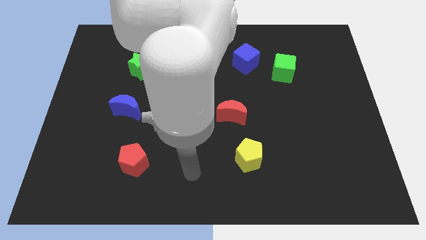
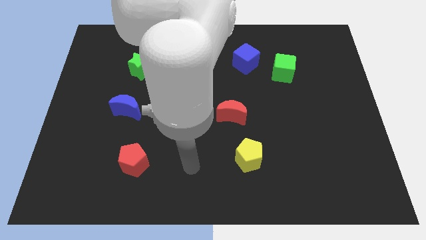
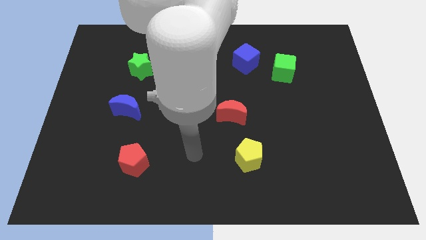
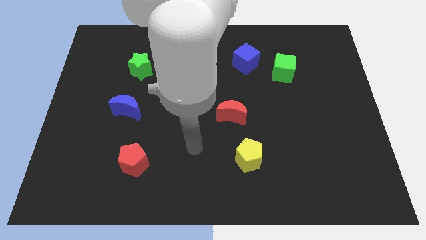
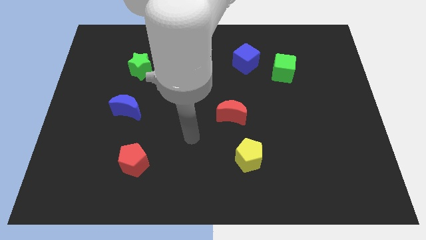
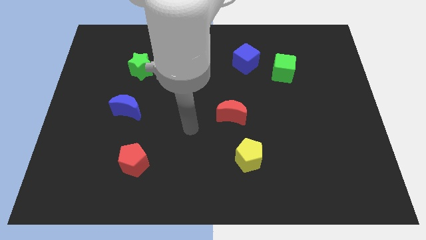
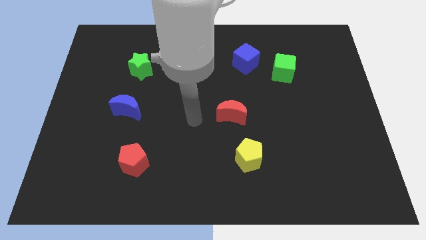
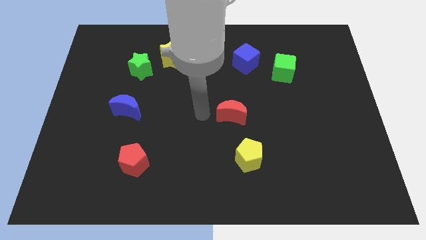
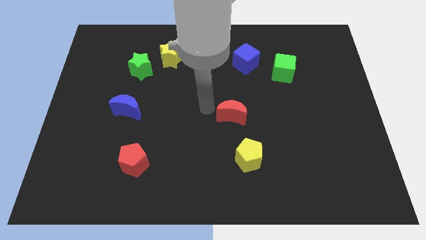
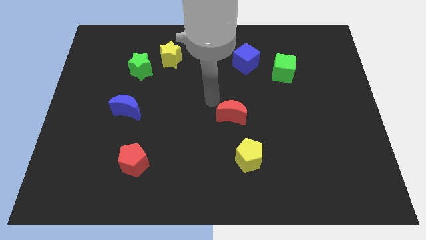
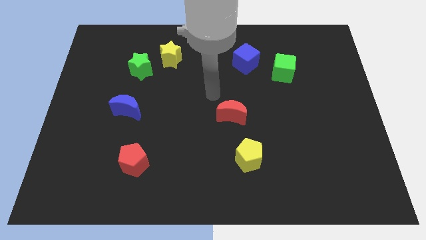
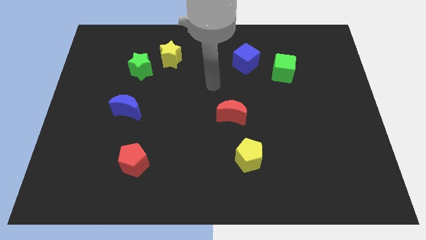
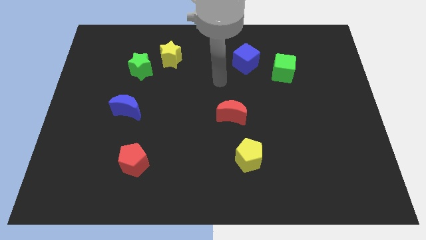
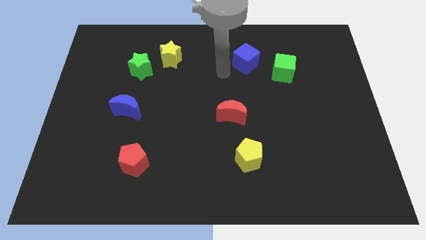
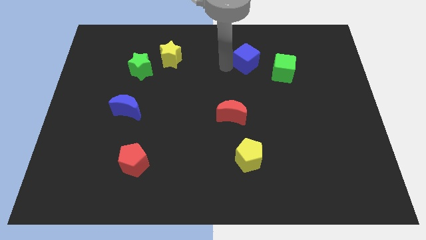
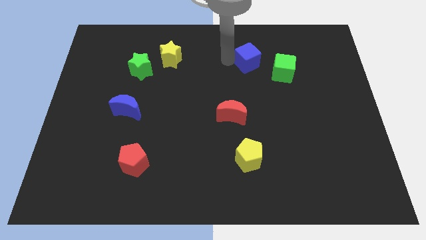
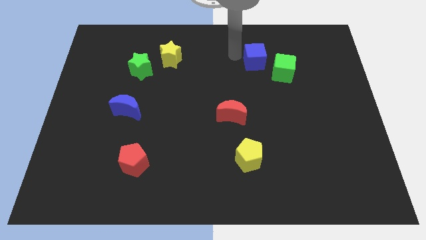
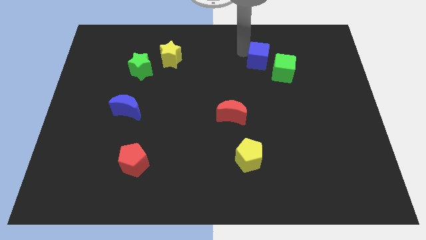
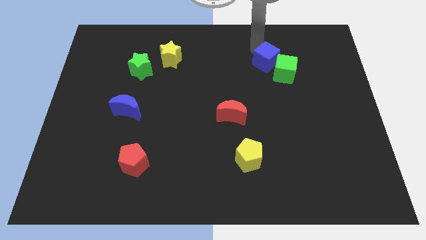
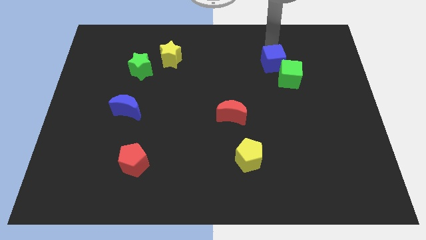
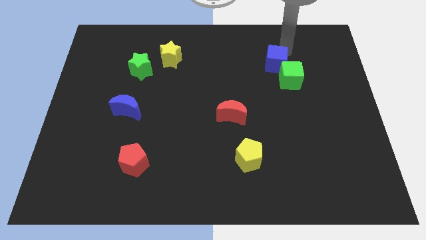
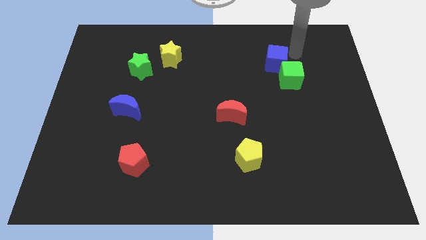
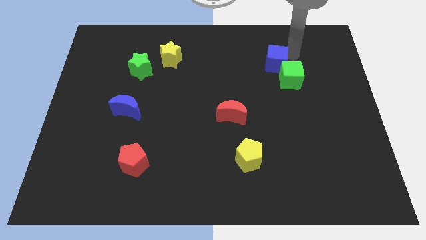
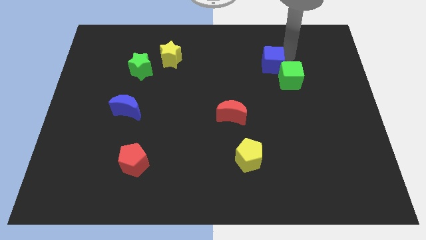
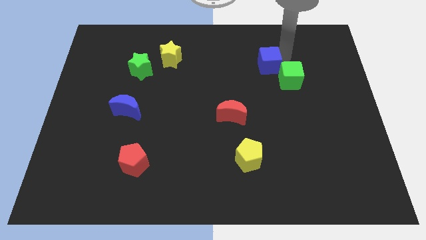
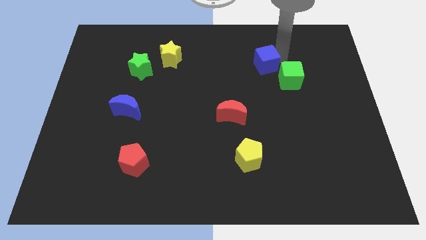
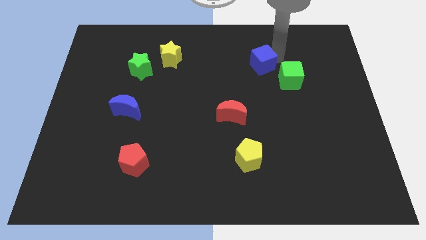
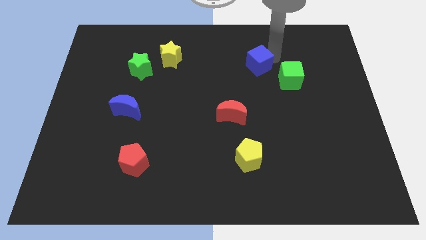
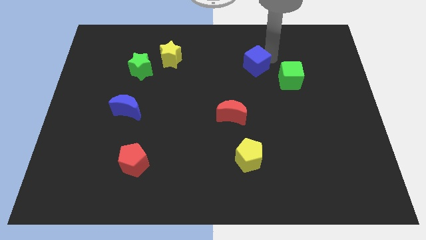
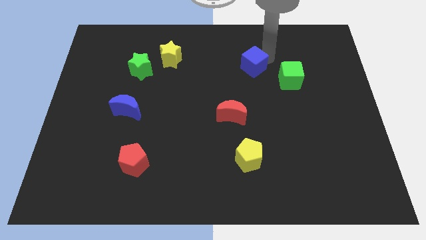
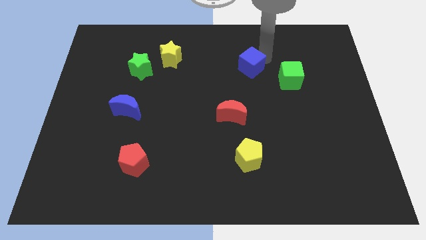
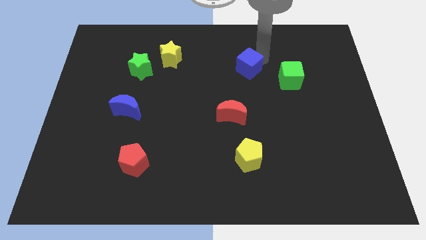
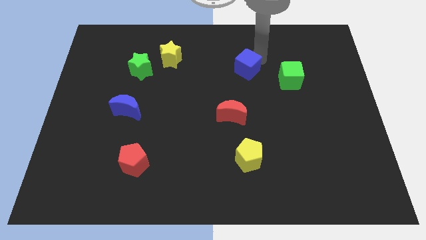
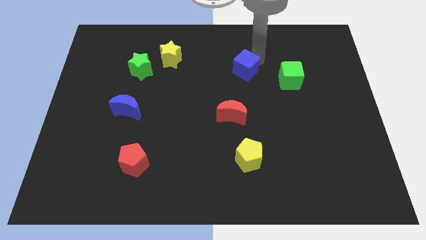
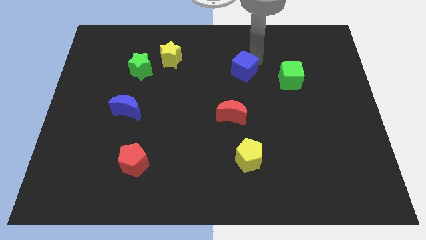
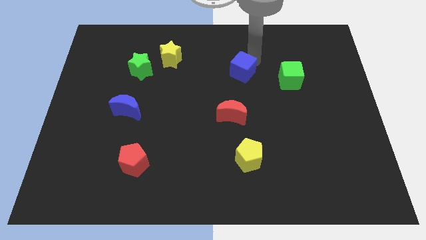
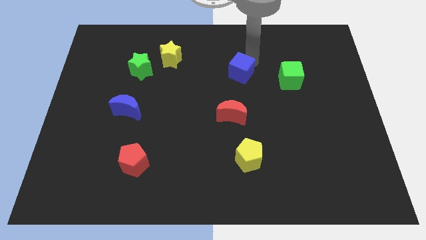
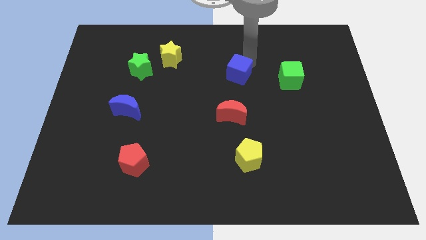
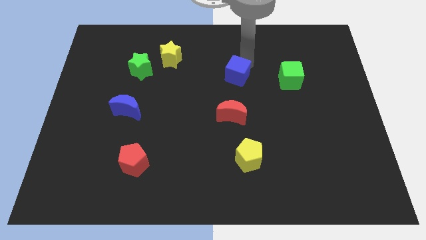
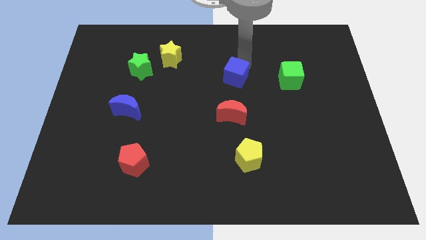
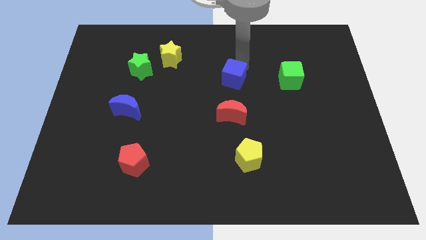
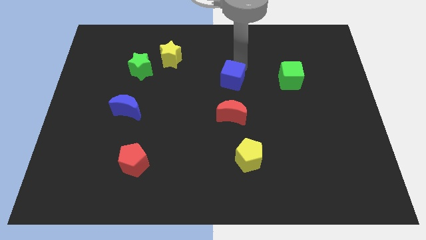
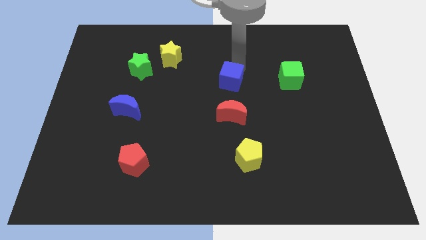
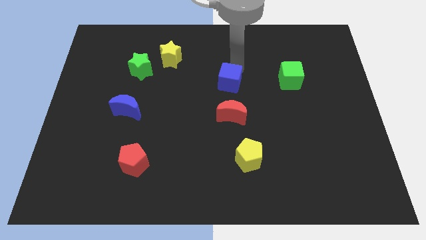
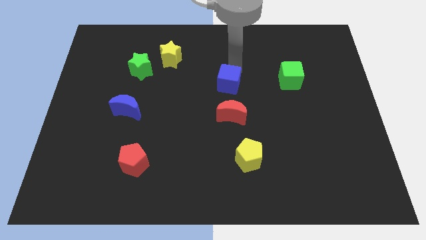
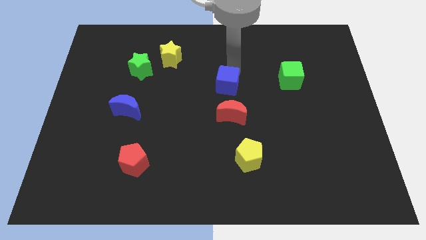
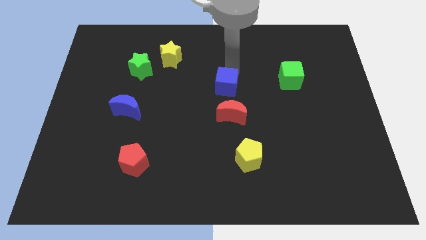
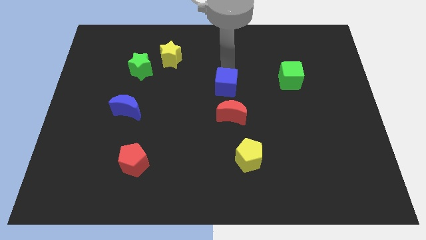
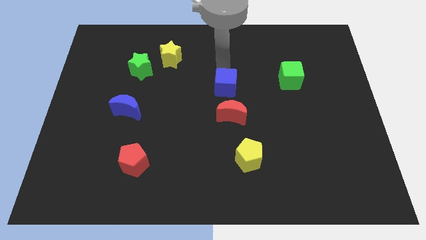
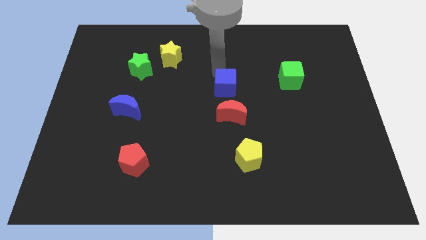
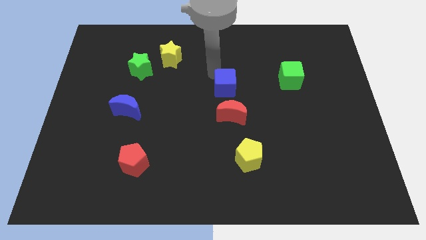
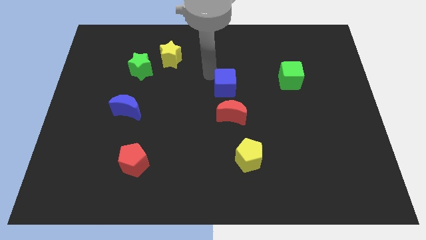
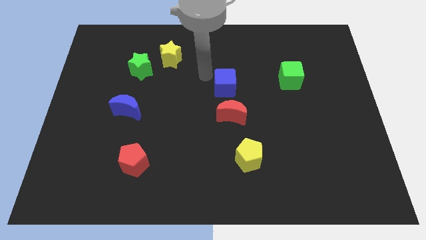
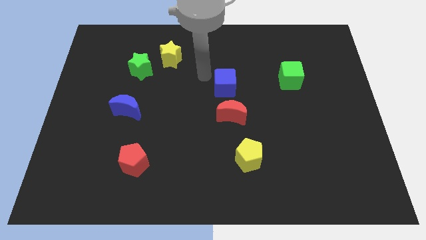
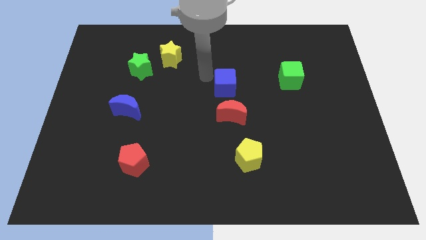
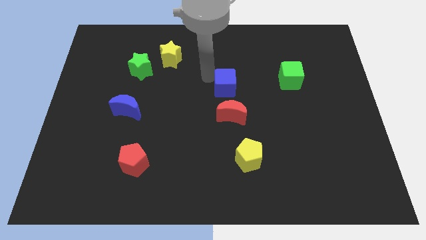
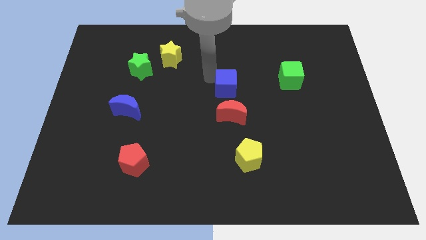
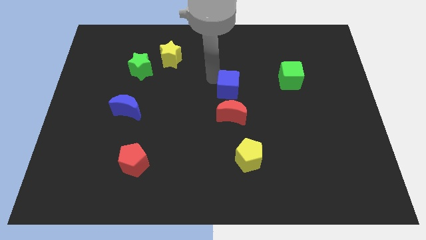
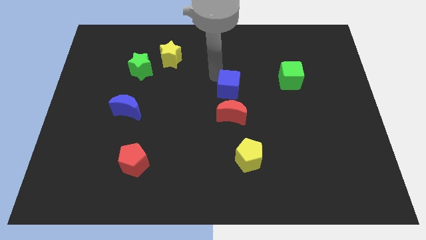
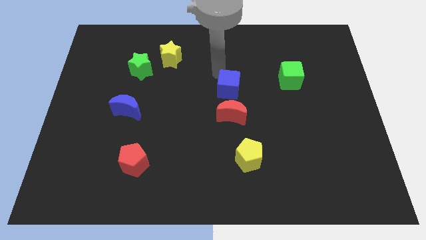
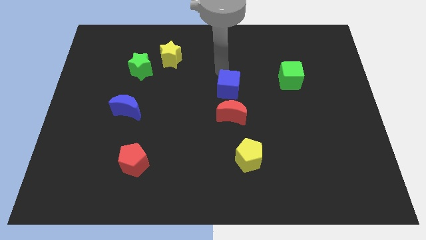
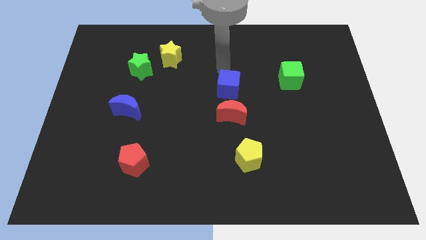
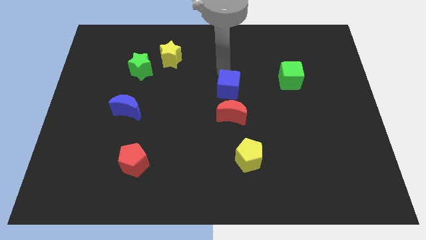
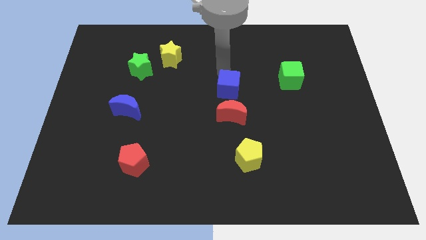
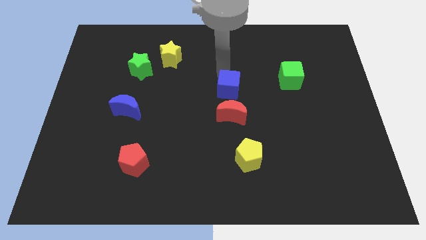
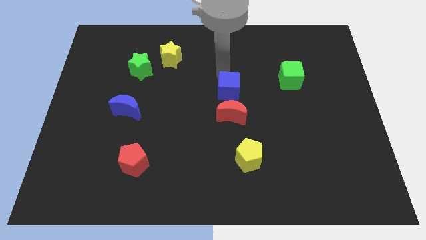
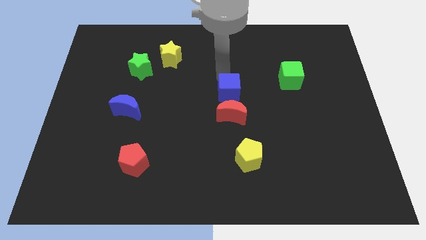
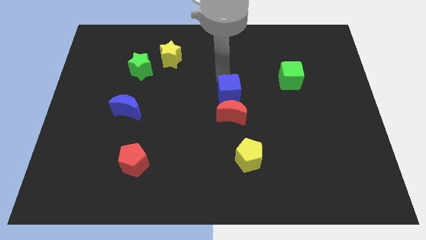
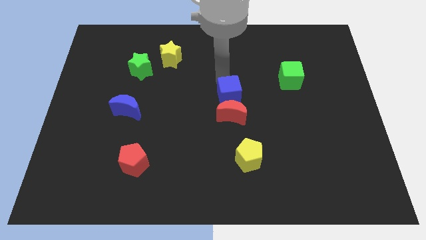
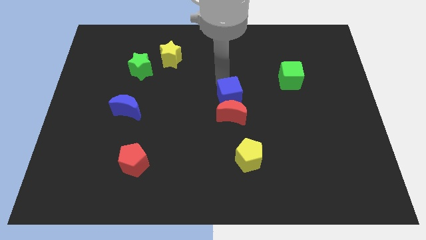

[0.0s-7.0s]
move the blue cube towards the red moon

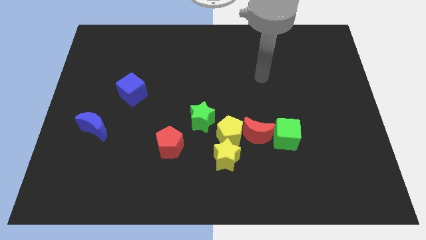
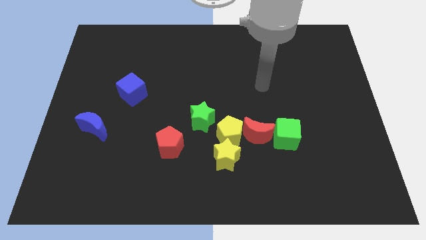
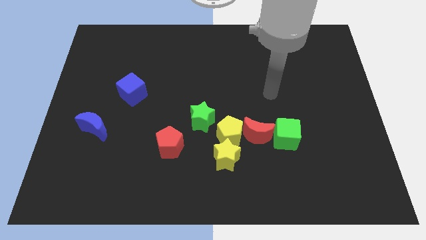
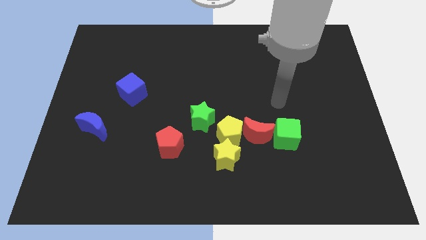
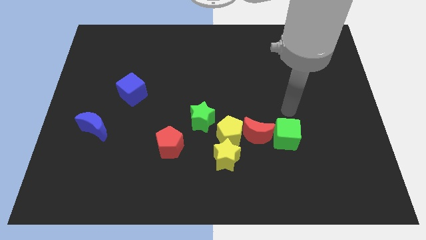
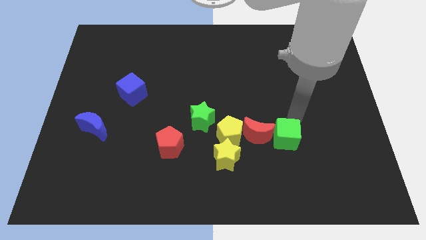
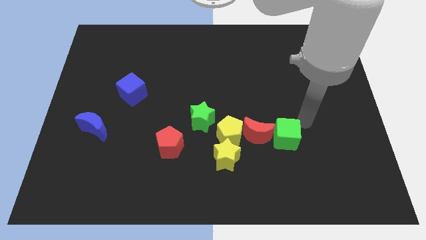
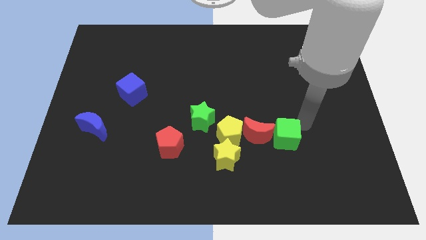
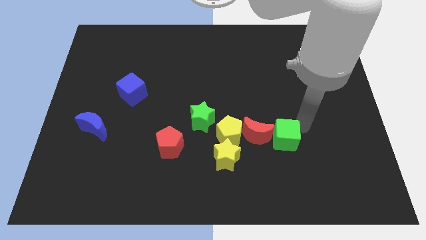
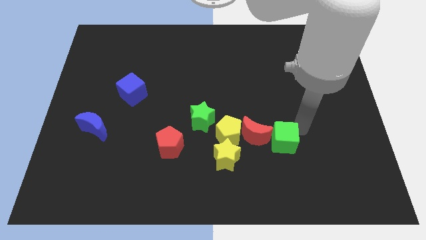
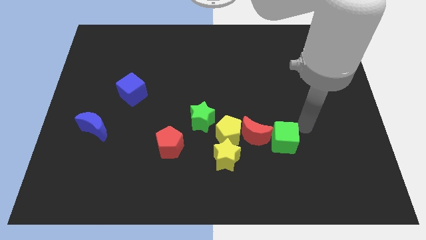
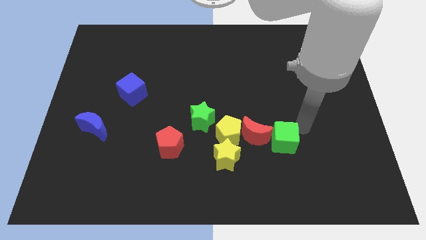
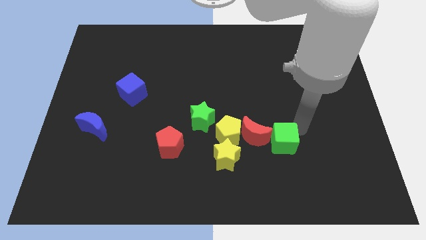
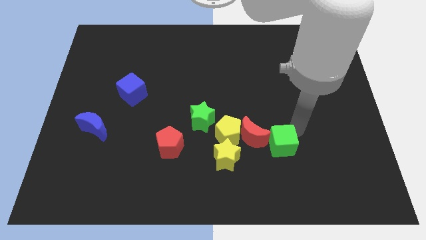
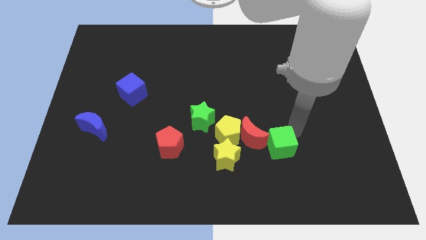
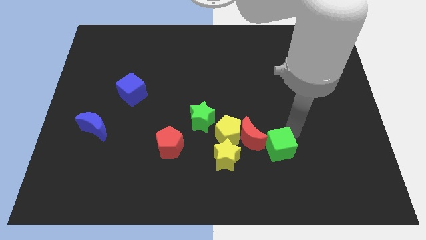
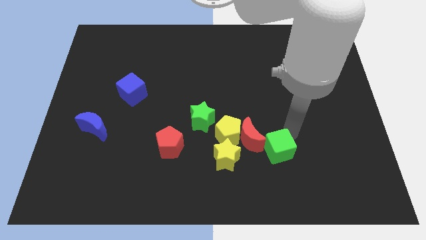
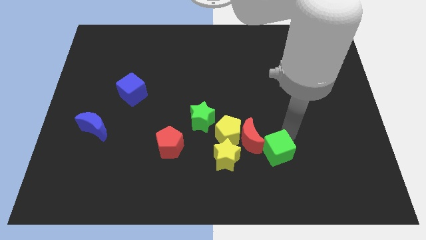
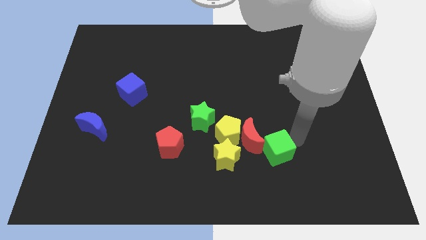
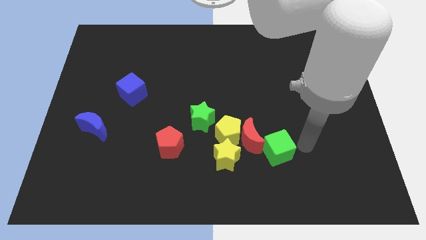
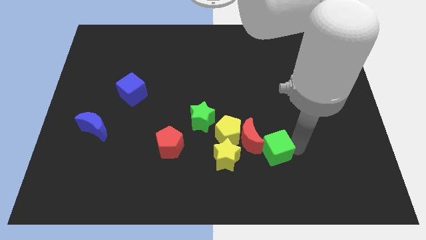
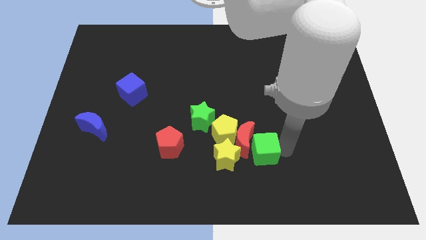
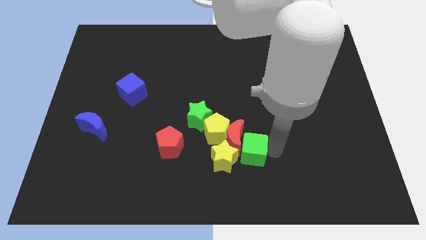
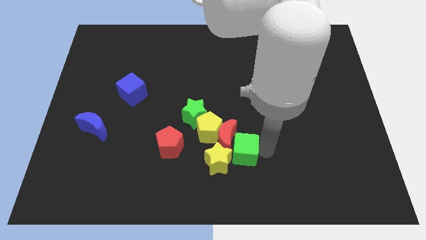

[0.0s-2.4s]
move the green cube next to the yellow star
